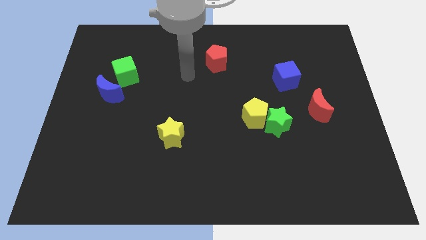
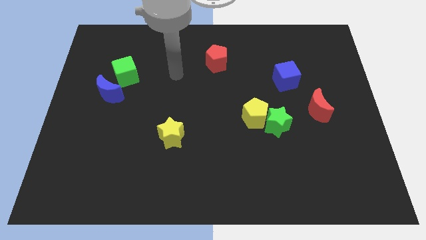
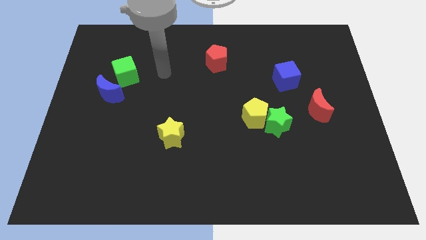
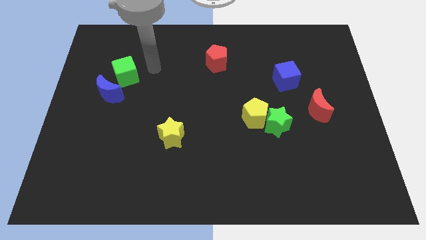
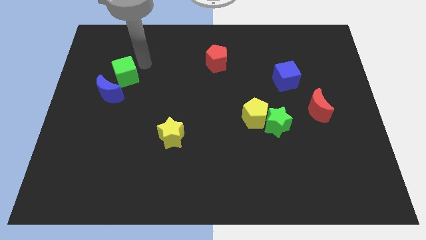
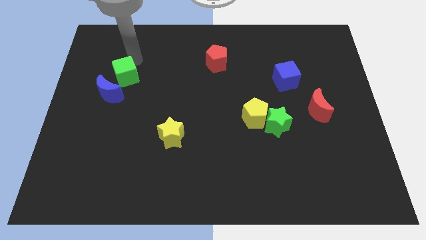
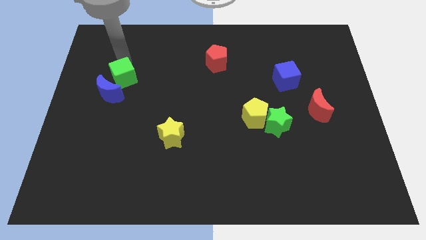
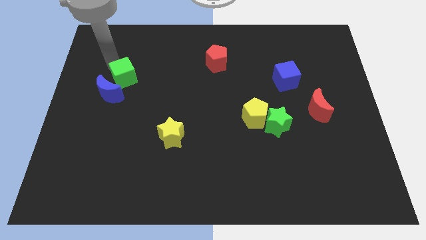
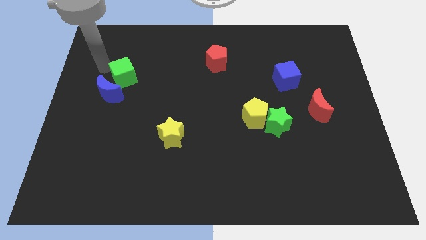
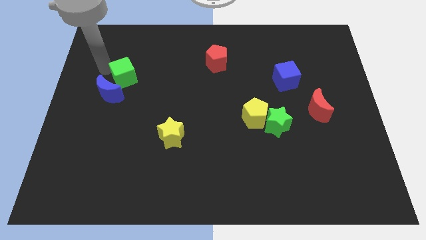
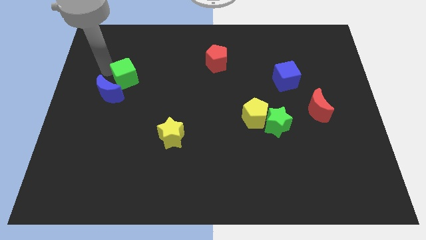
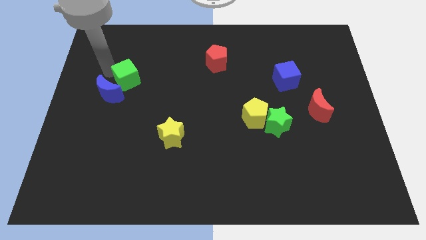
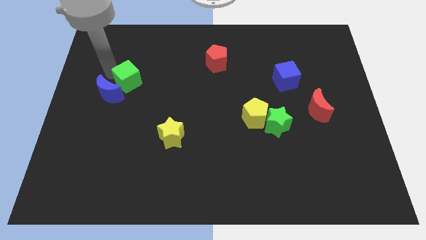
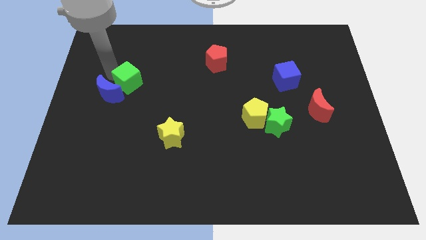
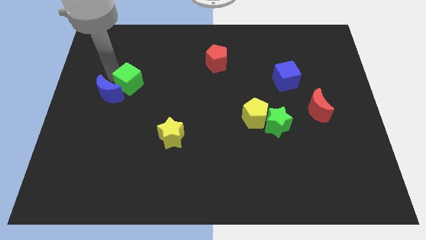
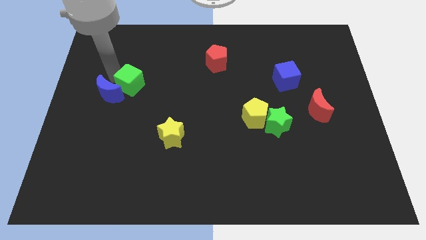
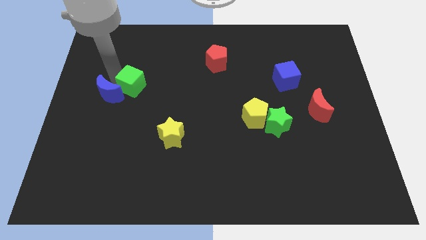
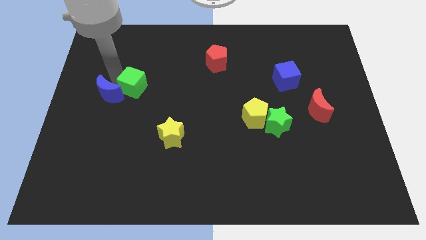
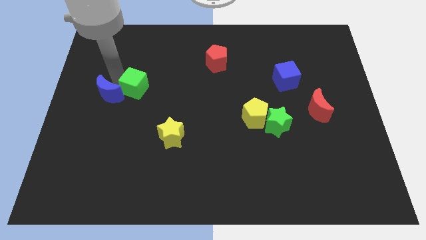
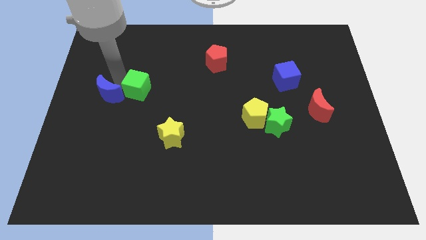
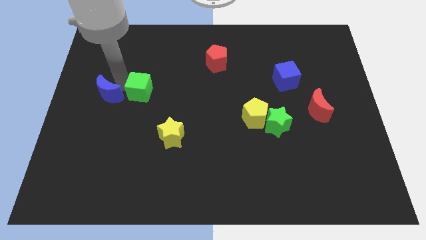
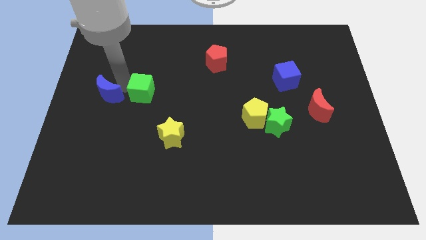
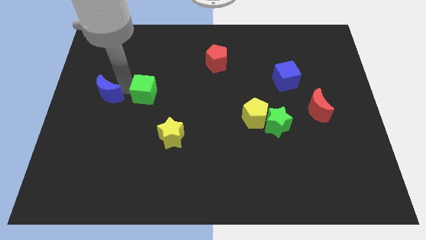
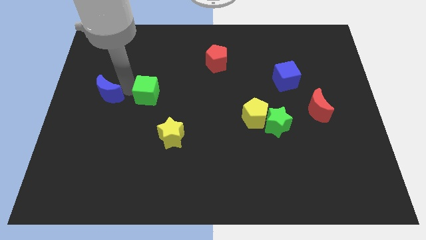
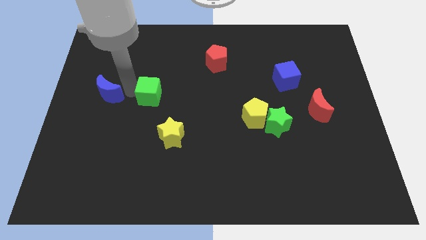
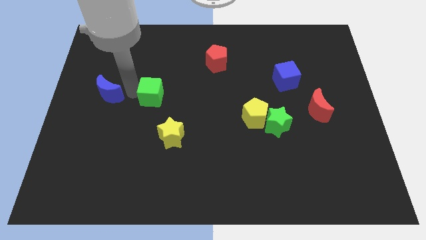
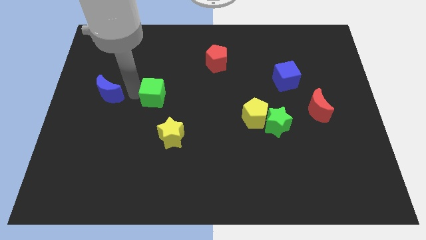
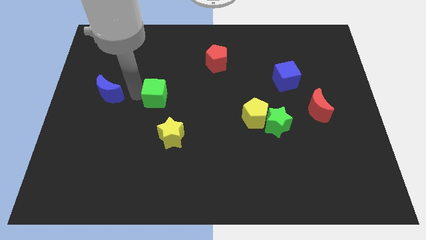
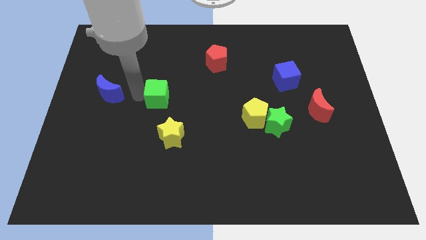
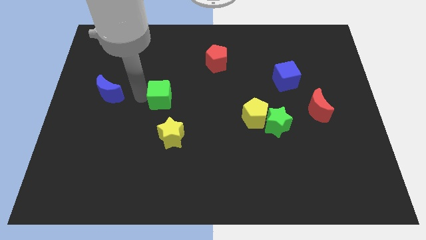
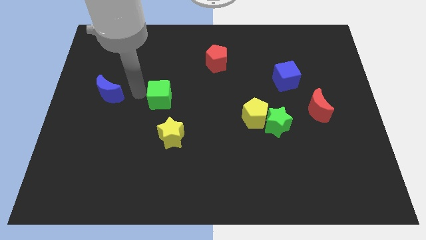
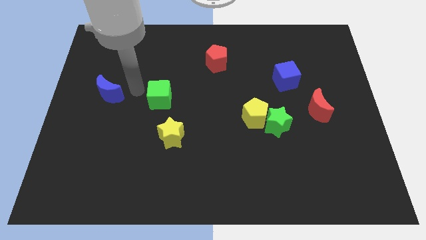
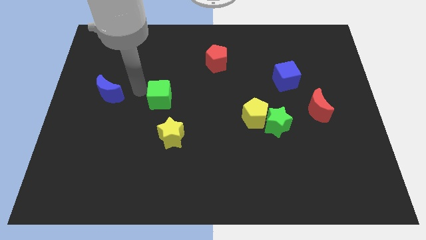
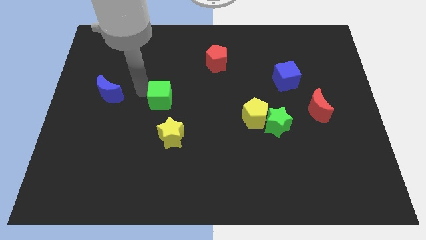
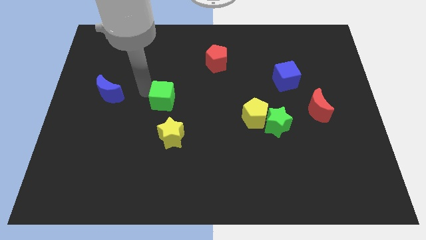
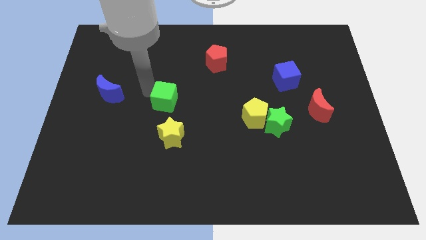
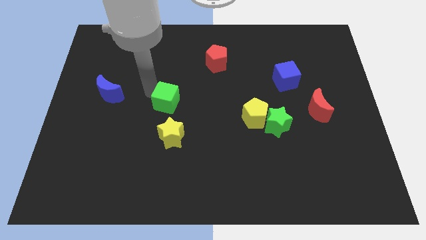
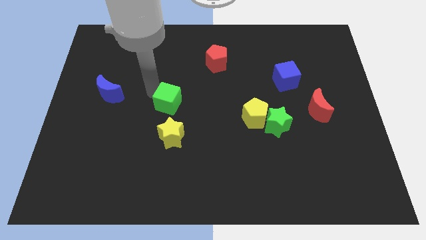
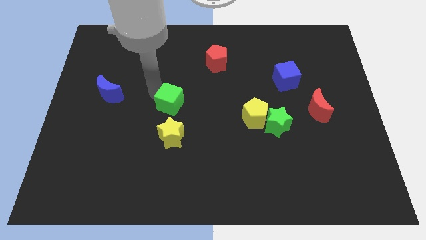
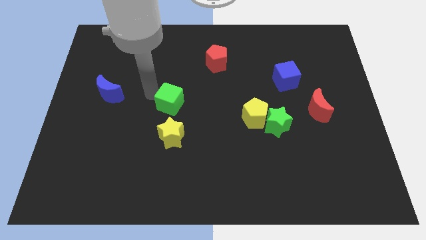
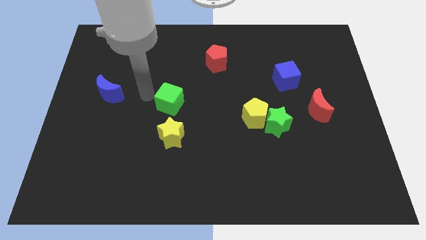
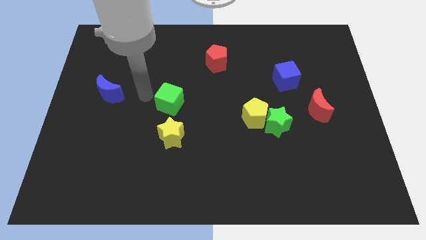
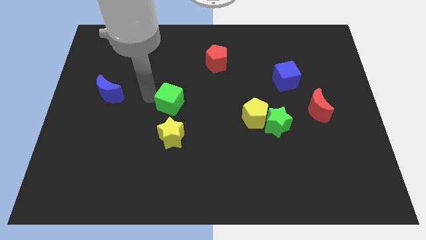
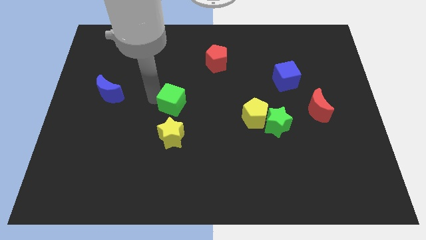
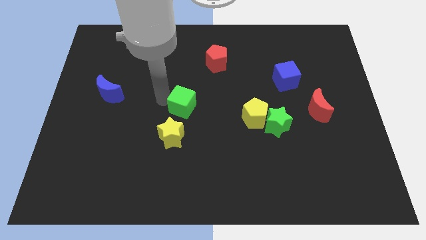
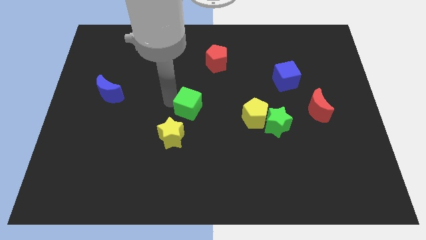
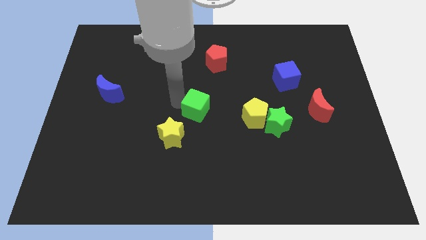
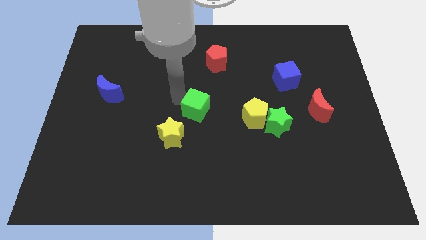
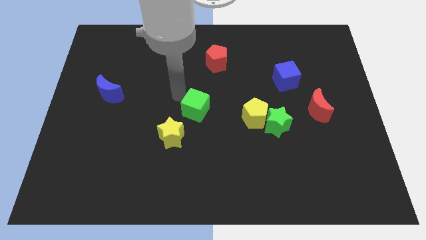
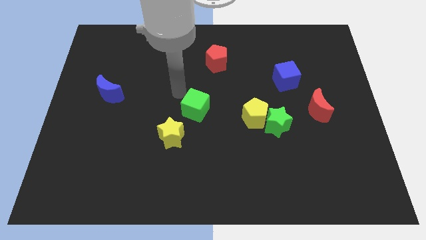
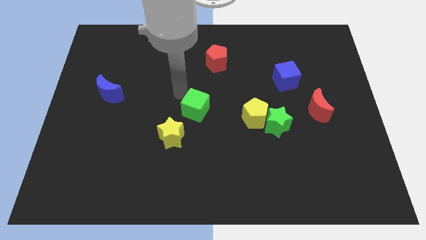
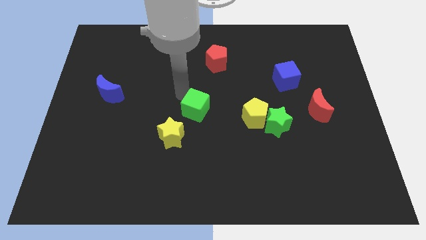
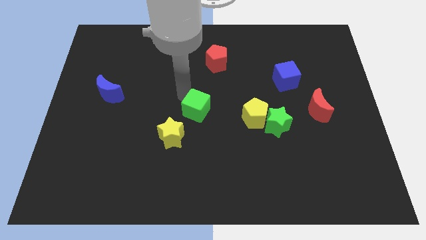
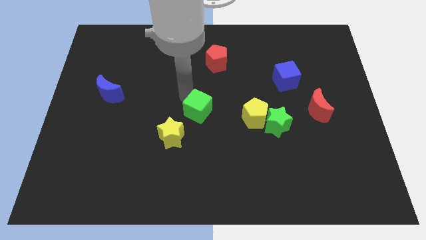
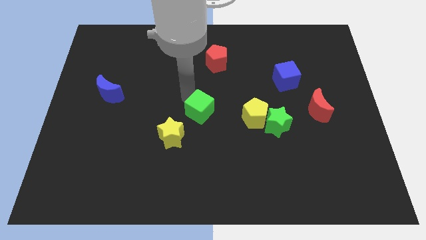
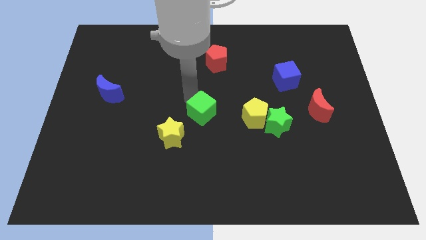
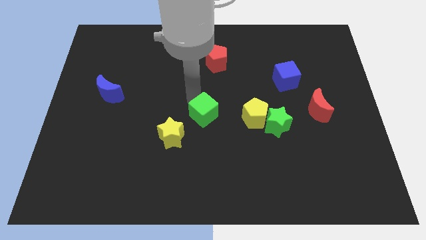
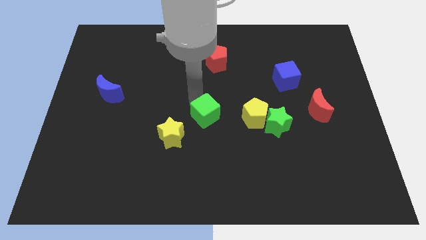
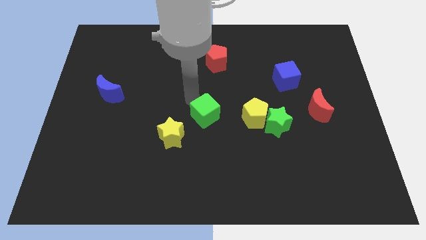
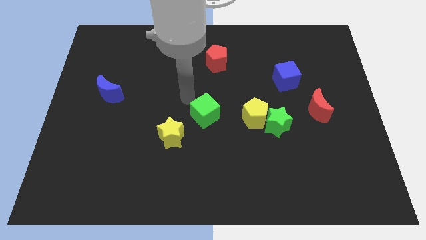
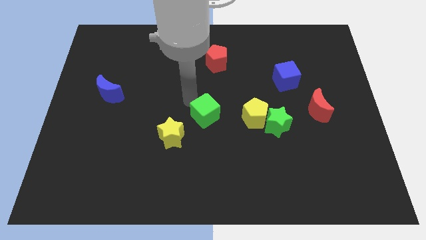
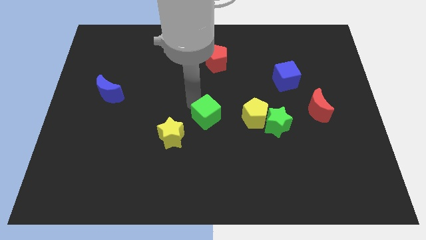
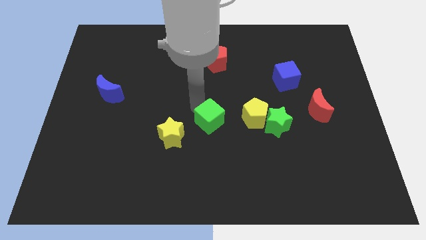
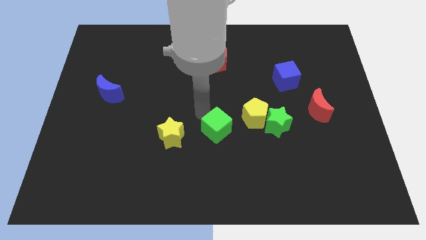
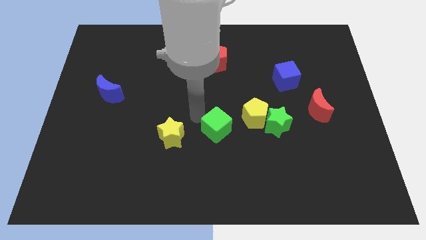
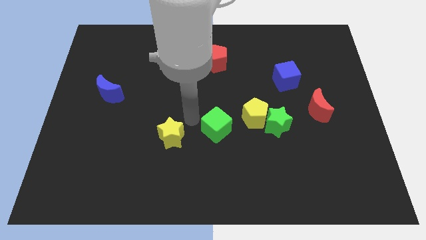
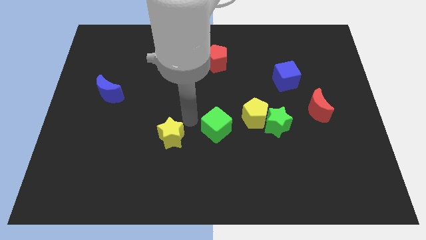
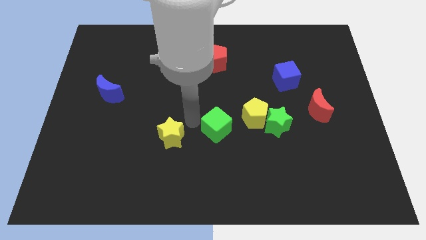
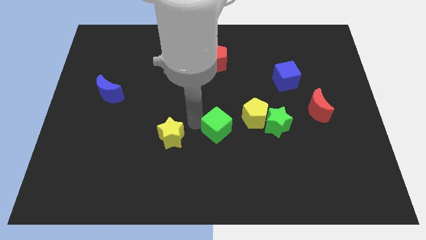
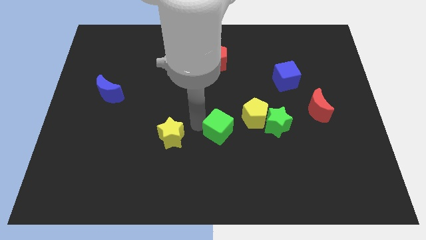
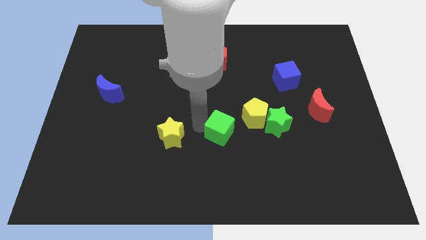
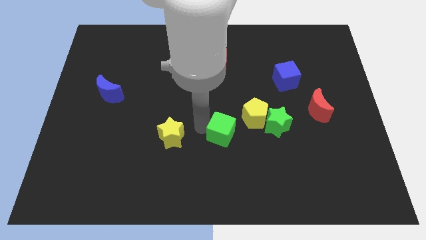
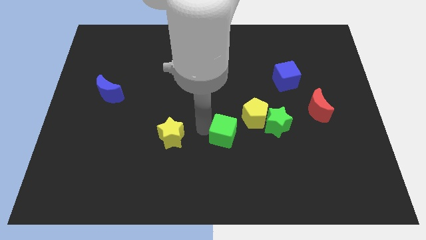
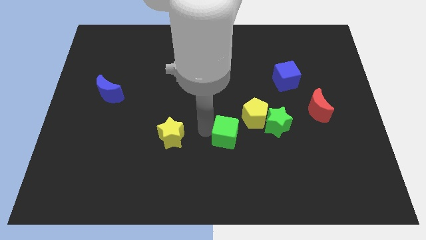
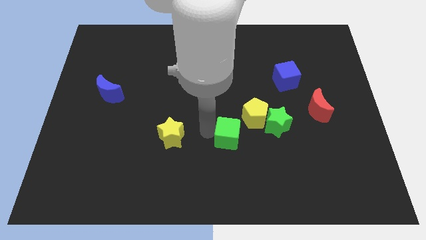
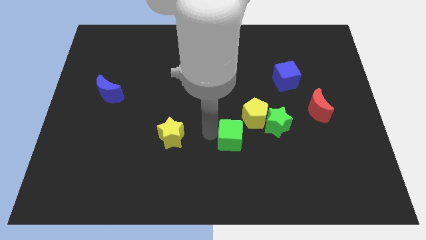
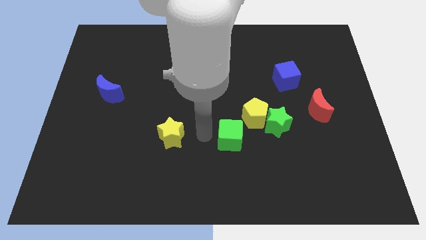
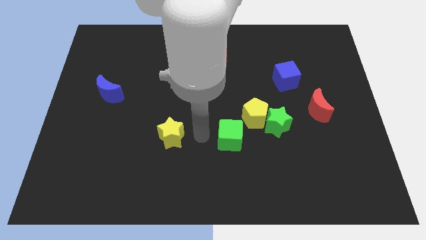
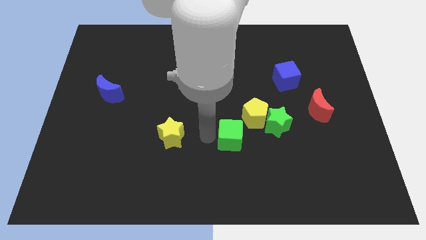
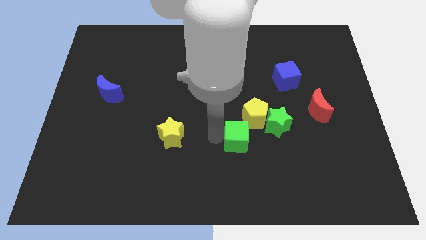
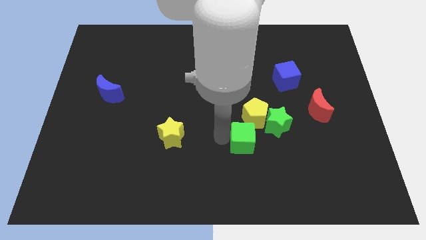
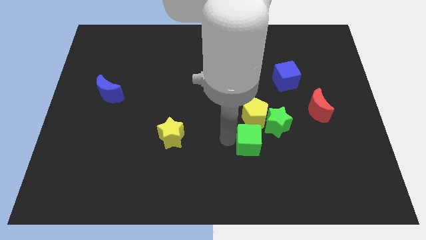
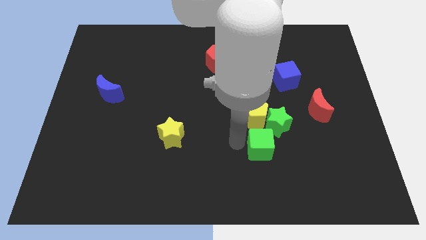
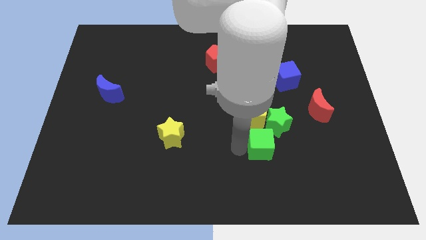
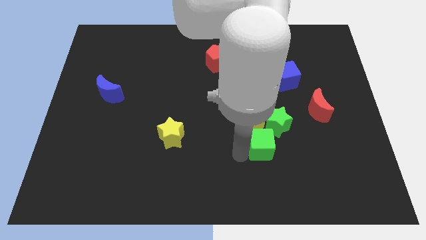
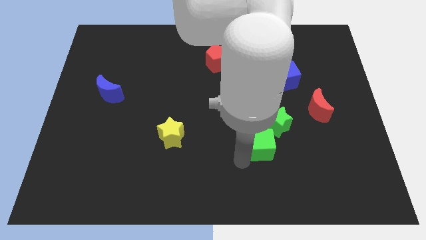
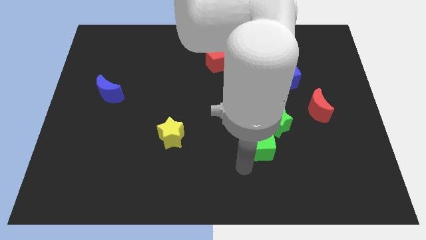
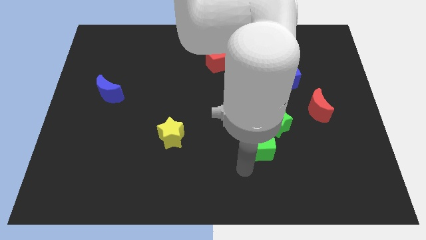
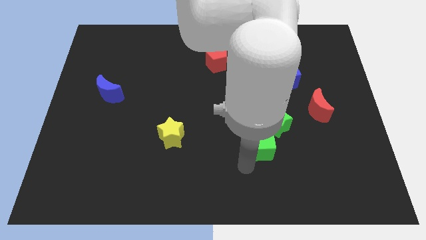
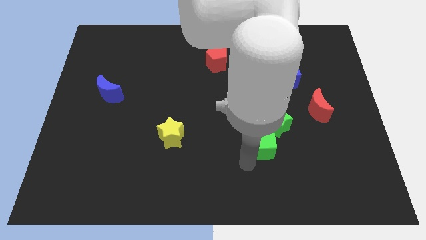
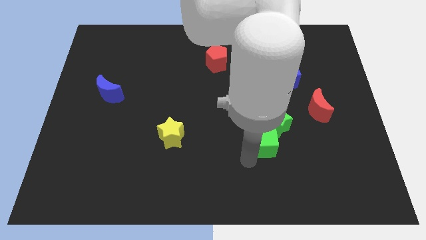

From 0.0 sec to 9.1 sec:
slide the green cube to the green star
